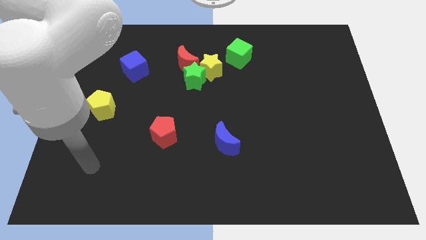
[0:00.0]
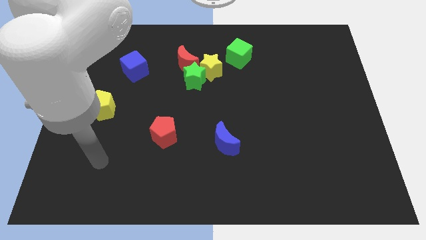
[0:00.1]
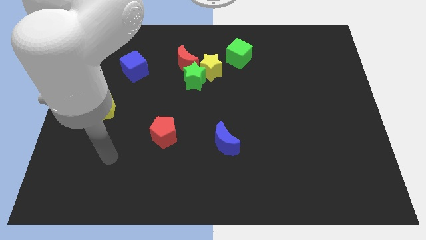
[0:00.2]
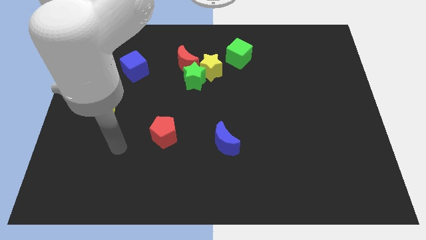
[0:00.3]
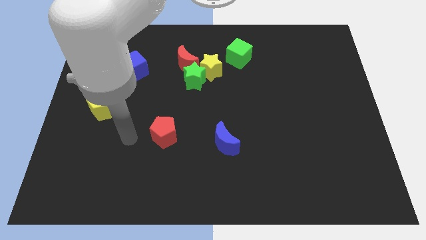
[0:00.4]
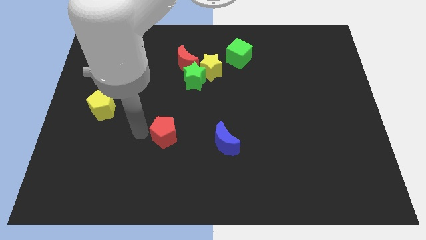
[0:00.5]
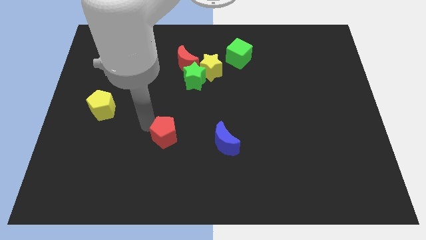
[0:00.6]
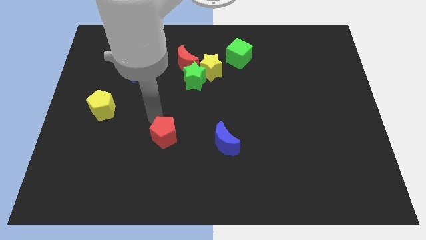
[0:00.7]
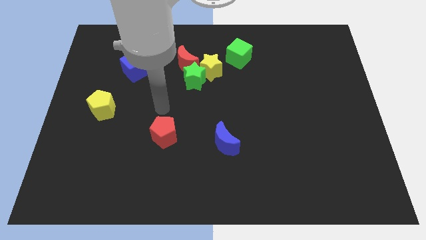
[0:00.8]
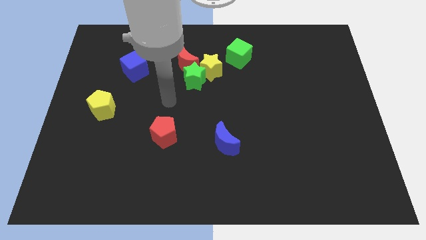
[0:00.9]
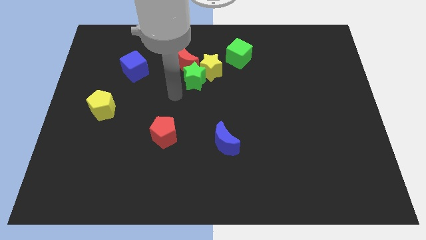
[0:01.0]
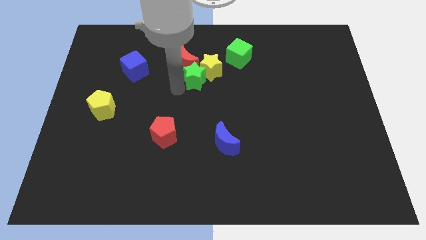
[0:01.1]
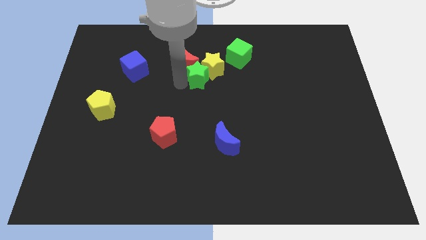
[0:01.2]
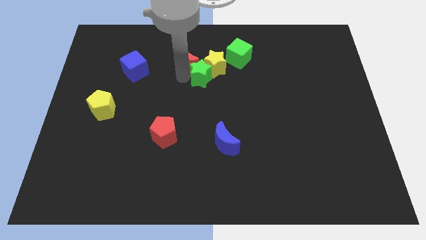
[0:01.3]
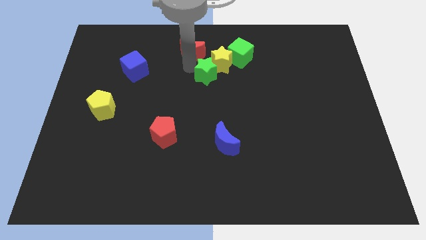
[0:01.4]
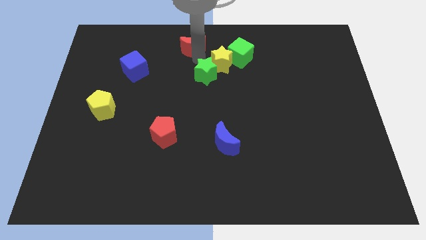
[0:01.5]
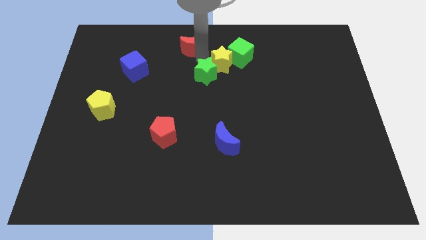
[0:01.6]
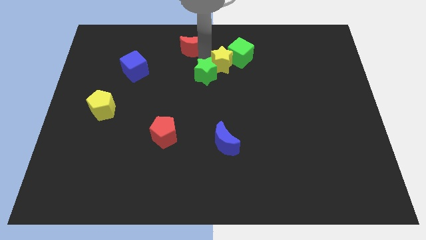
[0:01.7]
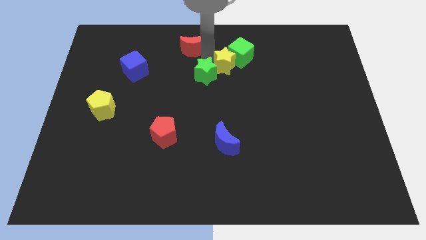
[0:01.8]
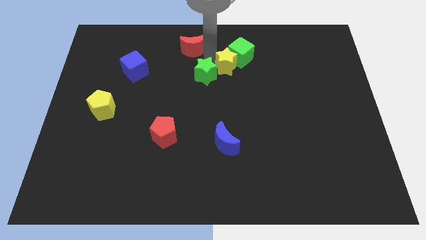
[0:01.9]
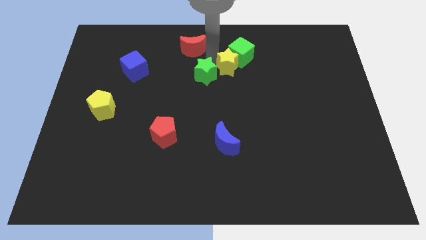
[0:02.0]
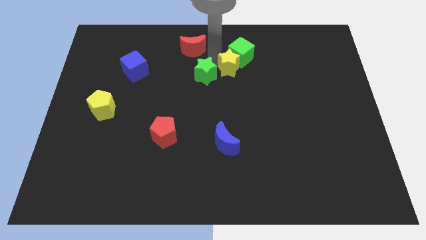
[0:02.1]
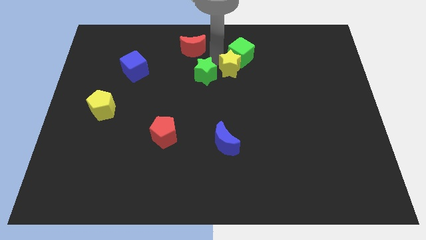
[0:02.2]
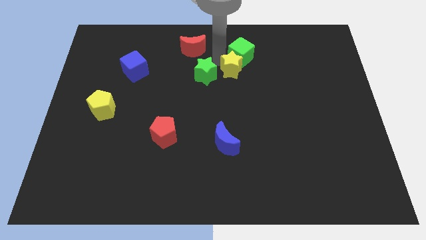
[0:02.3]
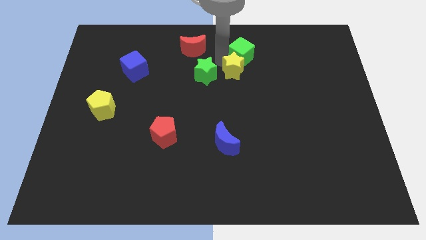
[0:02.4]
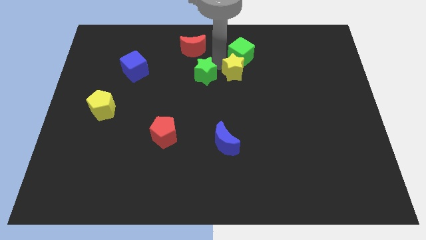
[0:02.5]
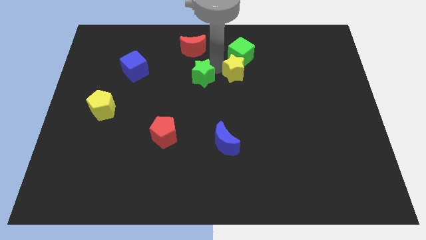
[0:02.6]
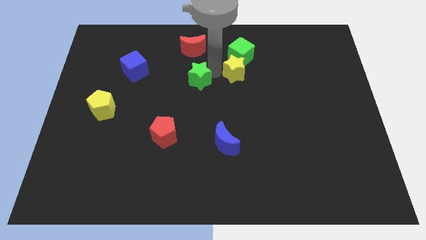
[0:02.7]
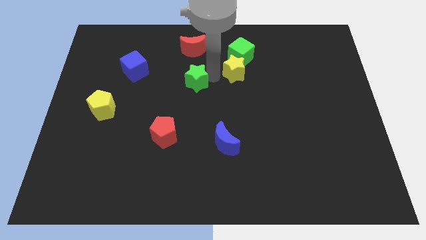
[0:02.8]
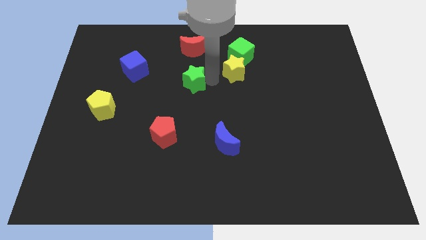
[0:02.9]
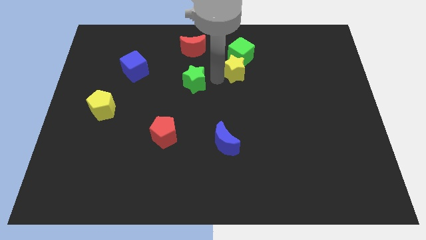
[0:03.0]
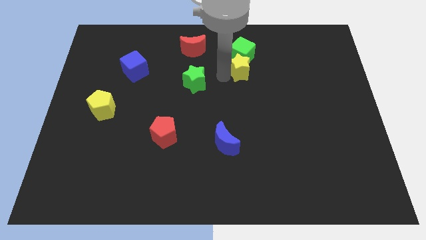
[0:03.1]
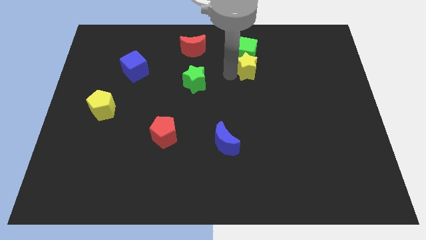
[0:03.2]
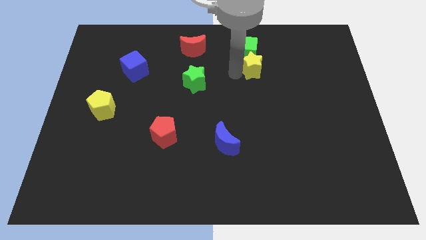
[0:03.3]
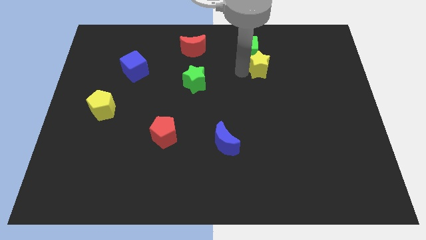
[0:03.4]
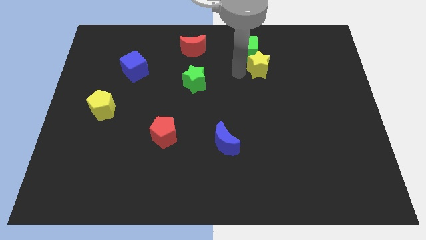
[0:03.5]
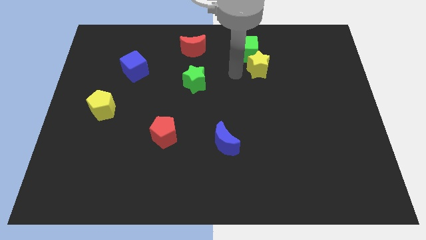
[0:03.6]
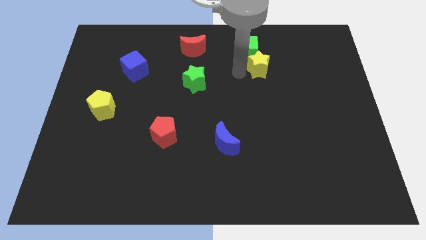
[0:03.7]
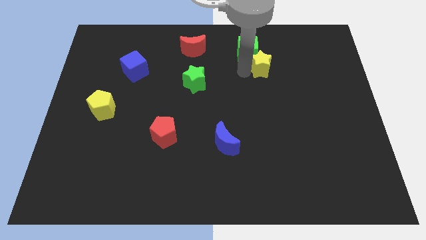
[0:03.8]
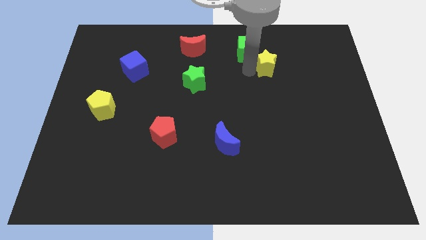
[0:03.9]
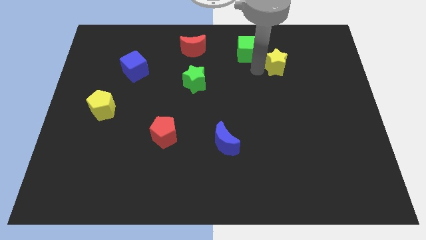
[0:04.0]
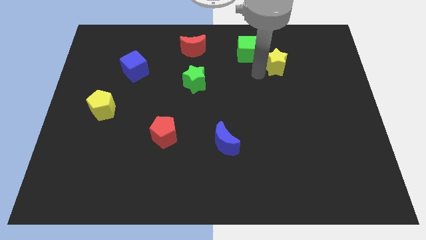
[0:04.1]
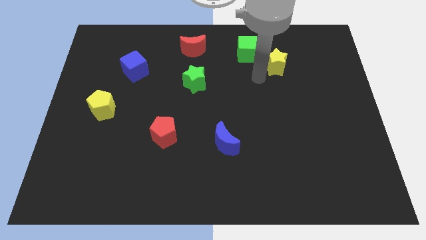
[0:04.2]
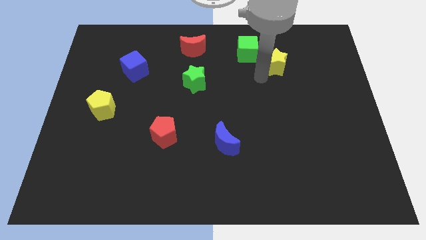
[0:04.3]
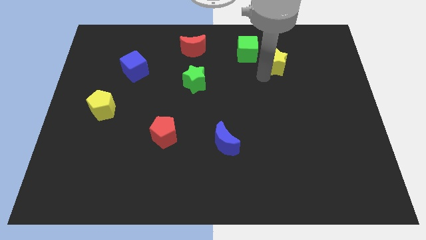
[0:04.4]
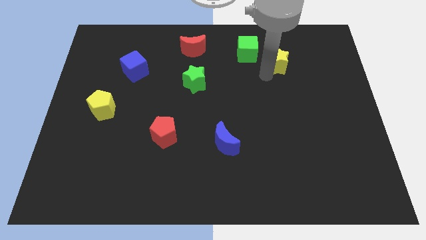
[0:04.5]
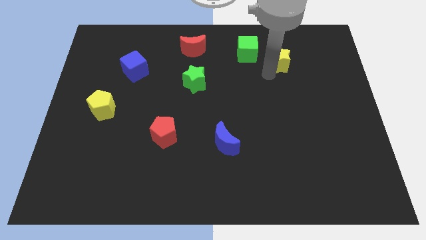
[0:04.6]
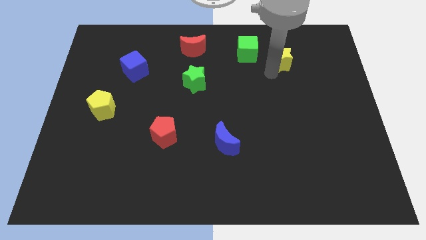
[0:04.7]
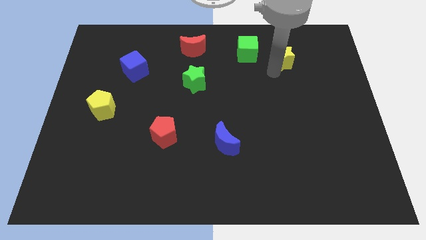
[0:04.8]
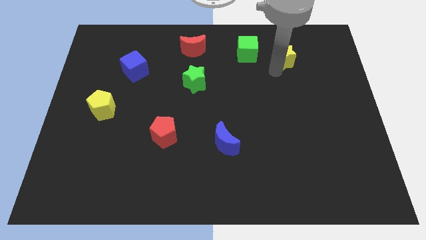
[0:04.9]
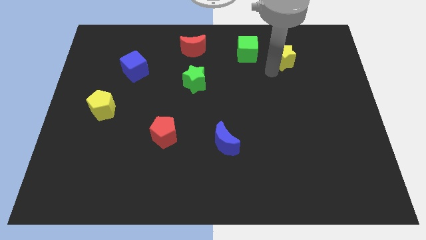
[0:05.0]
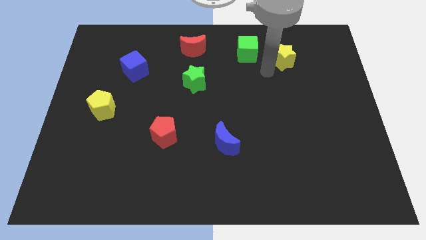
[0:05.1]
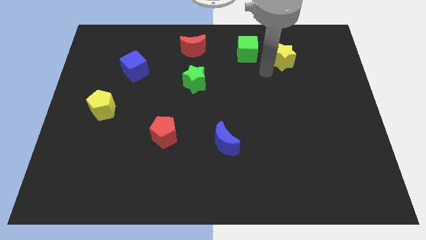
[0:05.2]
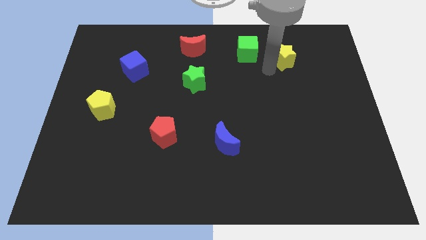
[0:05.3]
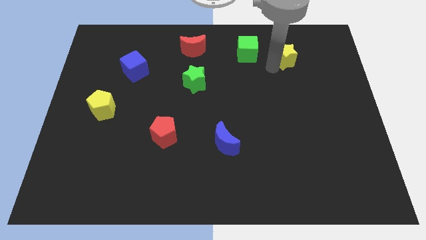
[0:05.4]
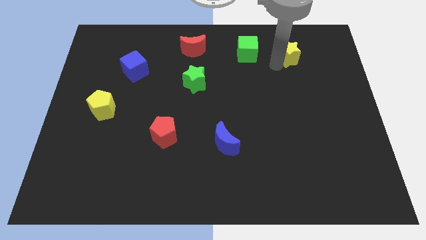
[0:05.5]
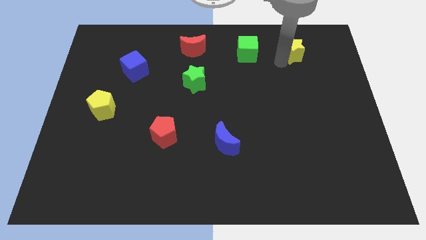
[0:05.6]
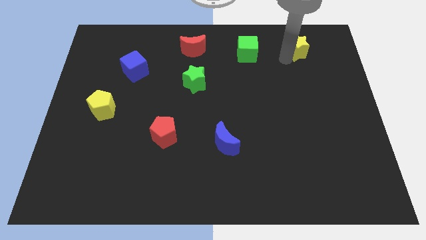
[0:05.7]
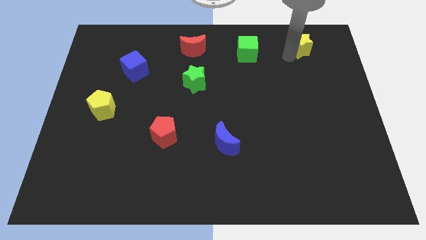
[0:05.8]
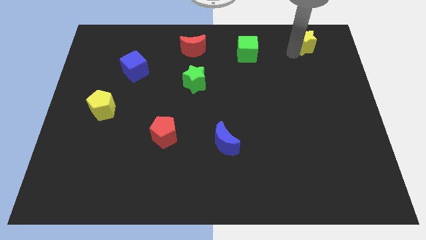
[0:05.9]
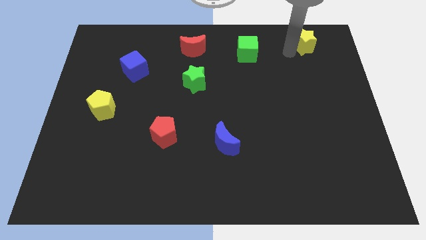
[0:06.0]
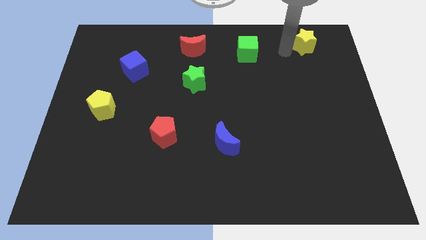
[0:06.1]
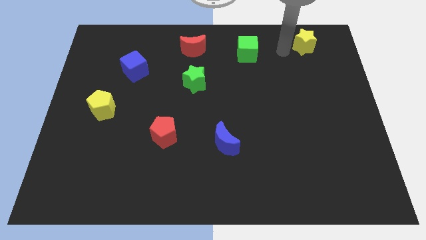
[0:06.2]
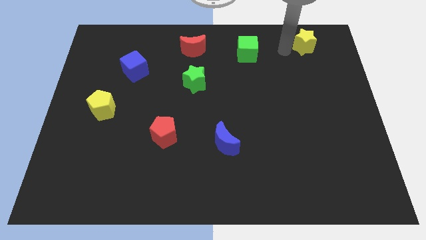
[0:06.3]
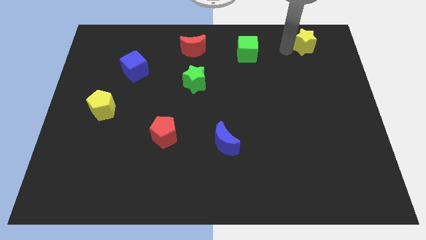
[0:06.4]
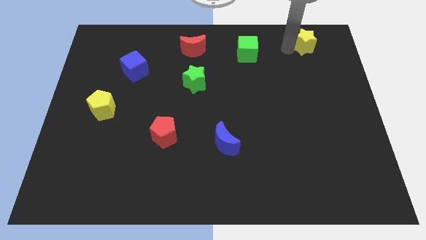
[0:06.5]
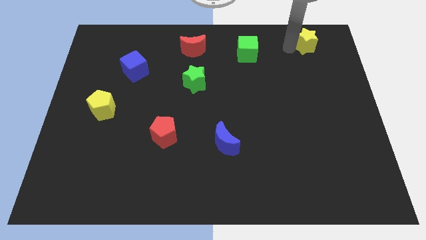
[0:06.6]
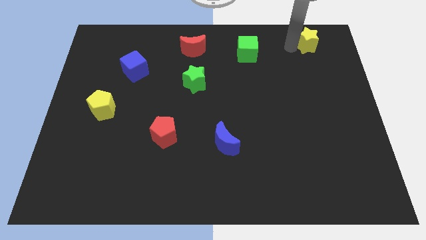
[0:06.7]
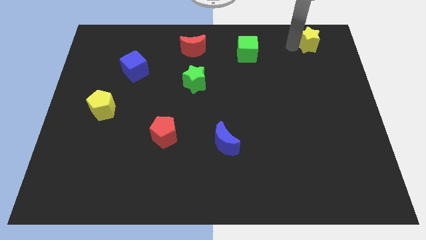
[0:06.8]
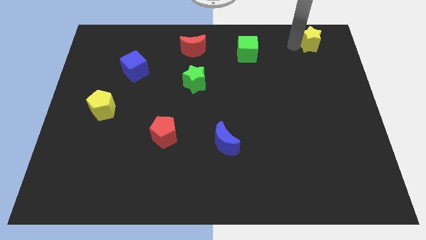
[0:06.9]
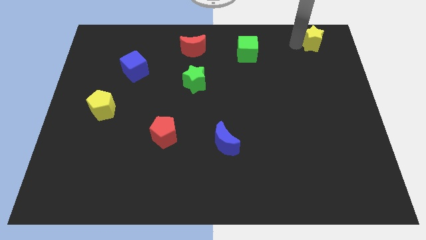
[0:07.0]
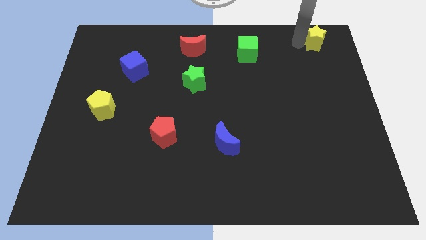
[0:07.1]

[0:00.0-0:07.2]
push the yellow star to the top right of the board
